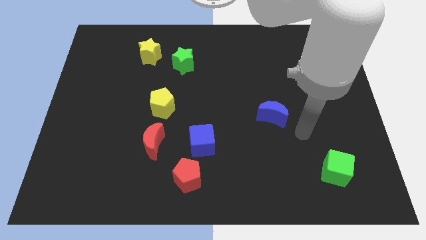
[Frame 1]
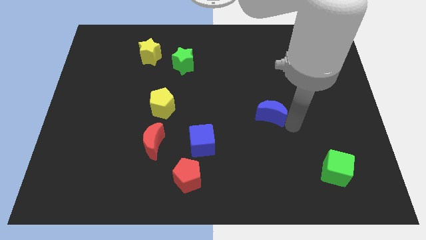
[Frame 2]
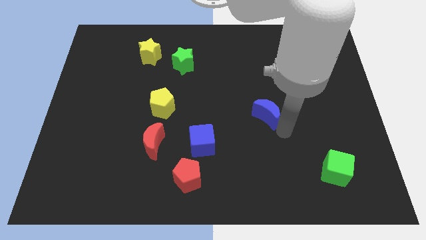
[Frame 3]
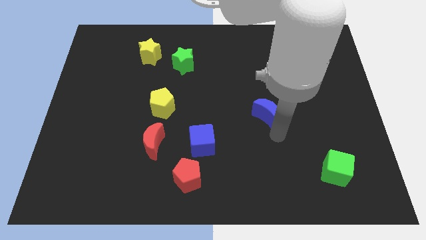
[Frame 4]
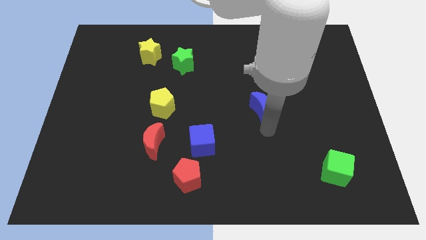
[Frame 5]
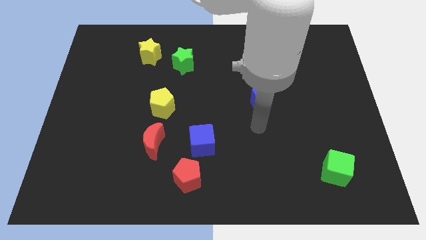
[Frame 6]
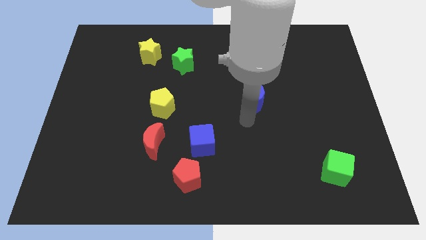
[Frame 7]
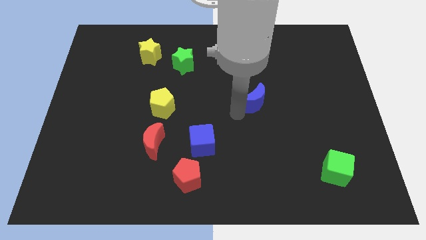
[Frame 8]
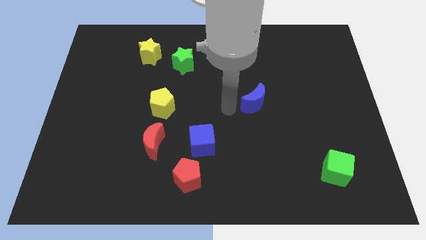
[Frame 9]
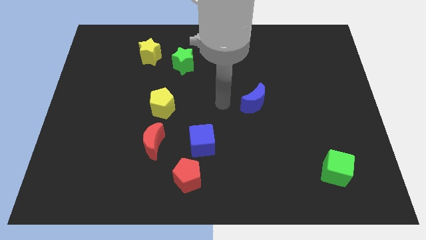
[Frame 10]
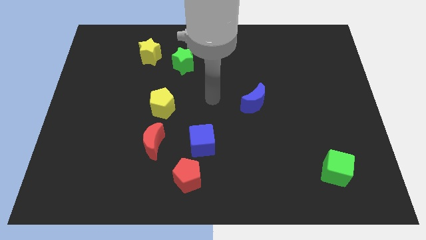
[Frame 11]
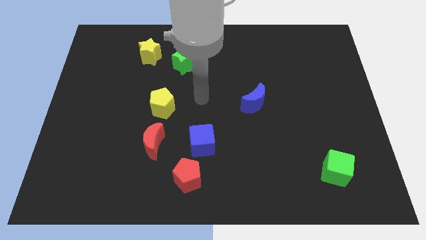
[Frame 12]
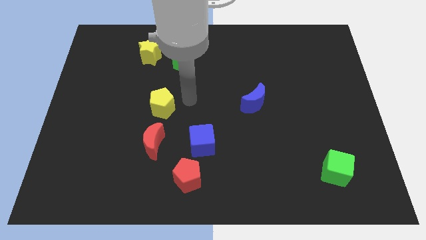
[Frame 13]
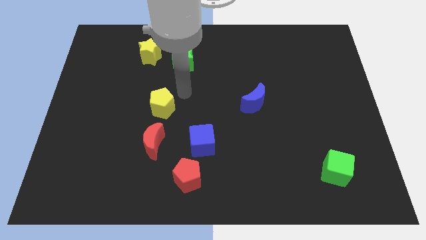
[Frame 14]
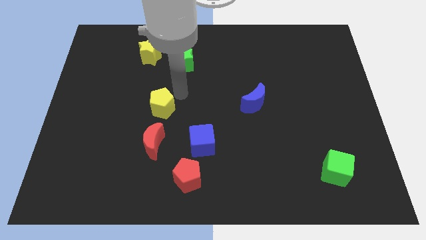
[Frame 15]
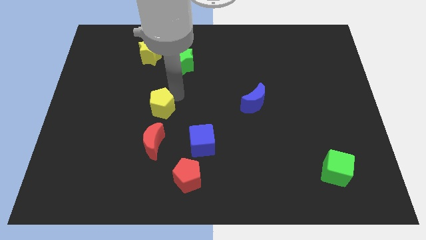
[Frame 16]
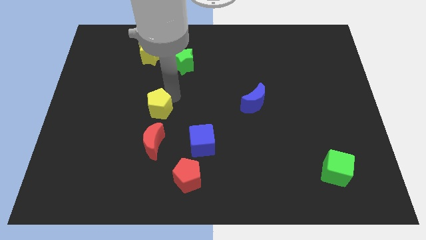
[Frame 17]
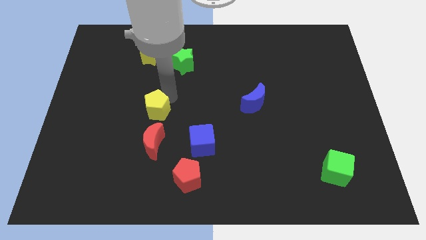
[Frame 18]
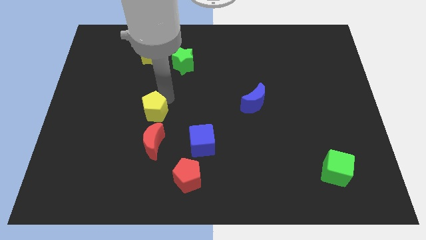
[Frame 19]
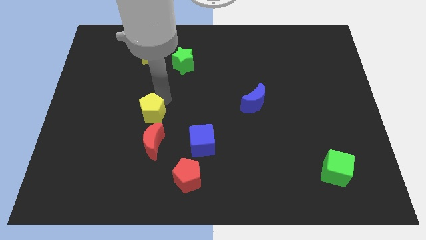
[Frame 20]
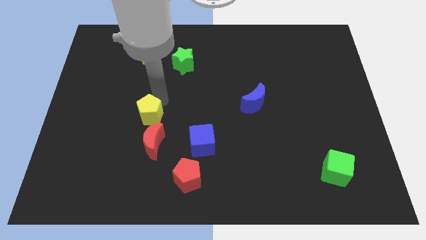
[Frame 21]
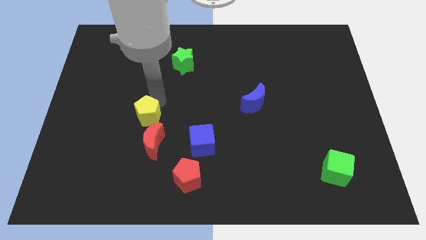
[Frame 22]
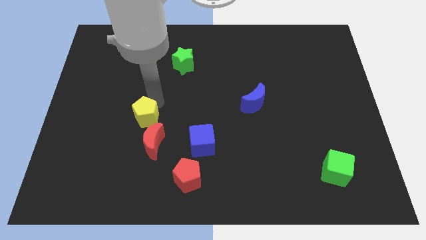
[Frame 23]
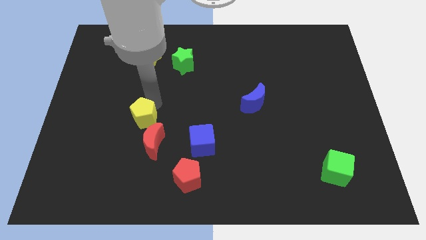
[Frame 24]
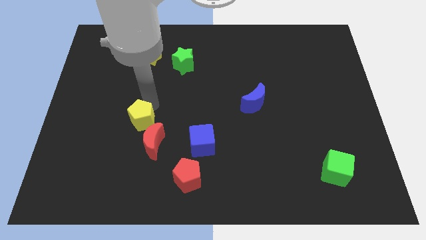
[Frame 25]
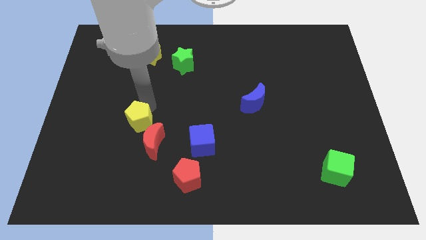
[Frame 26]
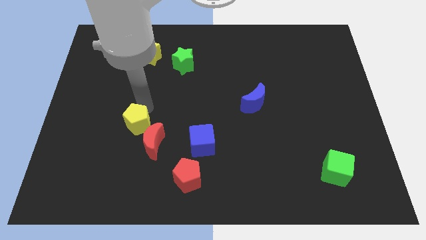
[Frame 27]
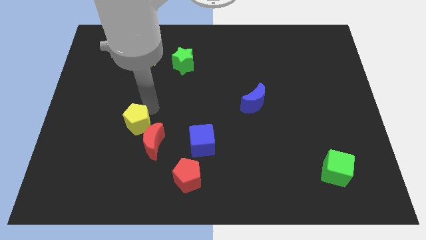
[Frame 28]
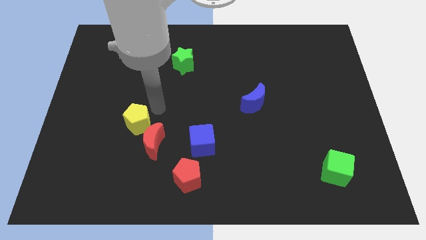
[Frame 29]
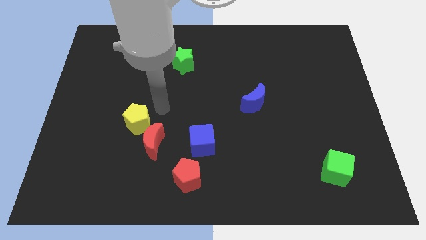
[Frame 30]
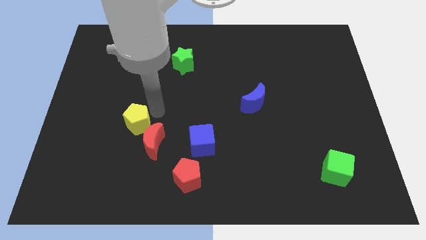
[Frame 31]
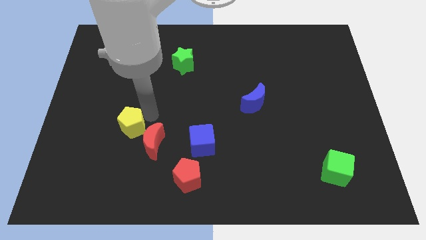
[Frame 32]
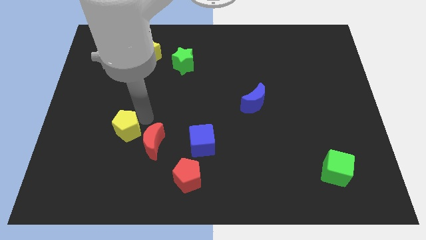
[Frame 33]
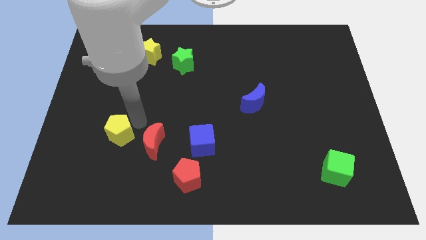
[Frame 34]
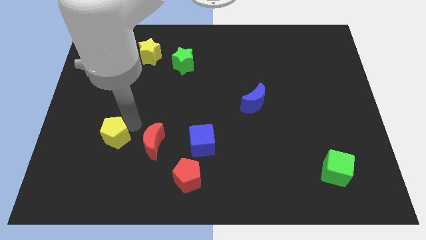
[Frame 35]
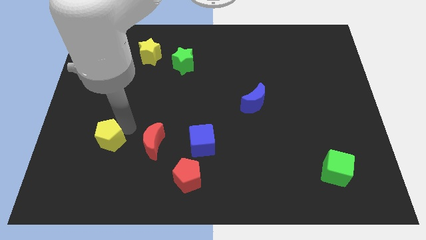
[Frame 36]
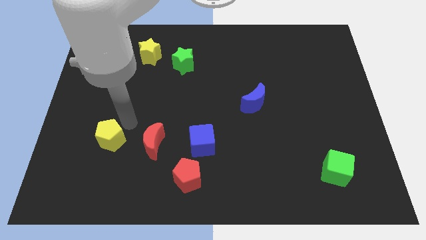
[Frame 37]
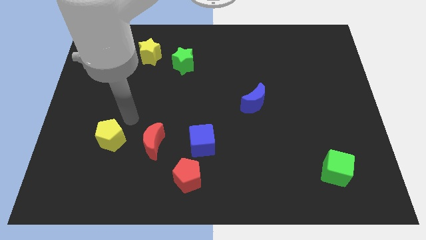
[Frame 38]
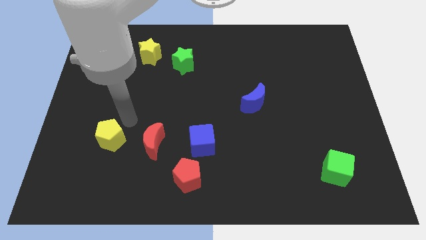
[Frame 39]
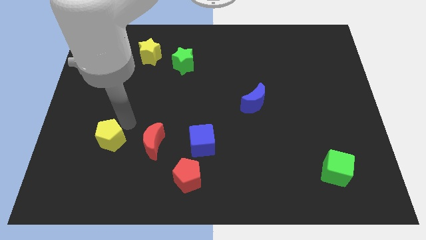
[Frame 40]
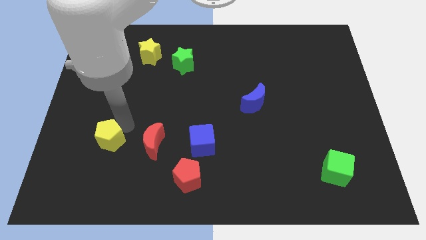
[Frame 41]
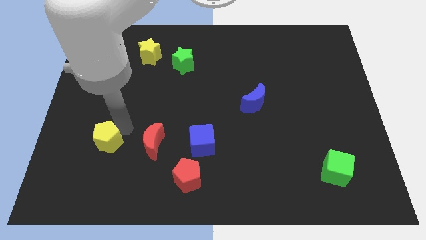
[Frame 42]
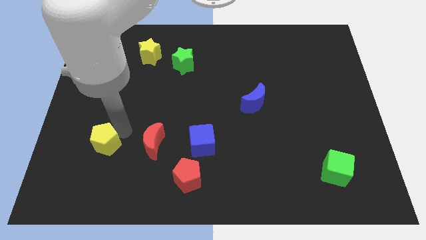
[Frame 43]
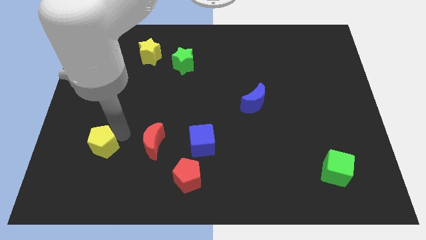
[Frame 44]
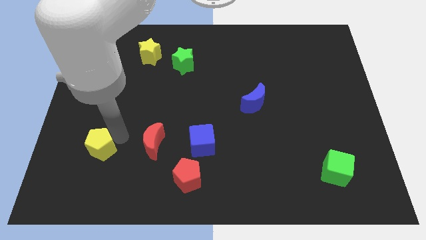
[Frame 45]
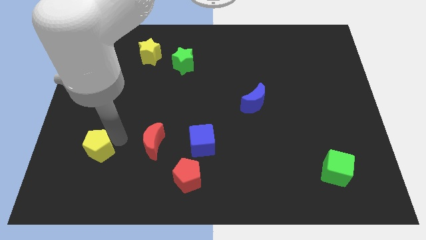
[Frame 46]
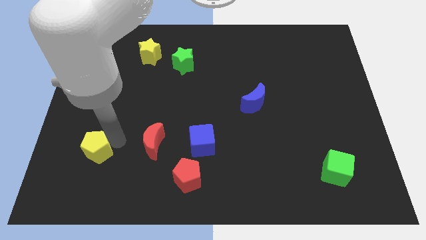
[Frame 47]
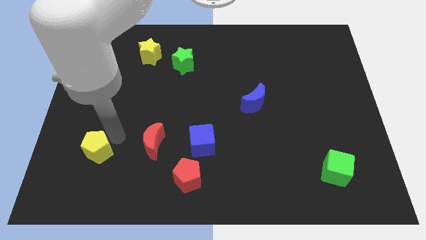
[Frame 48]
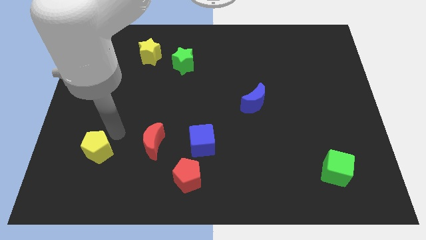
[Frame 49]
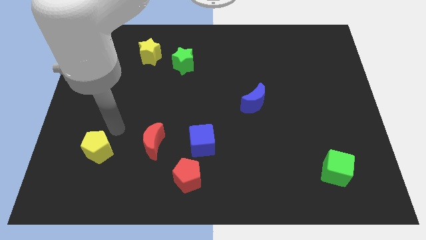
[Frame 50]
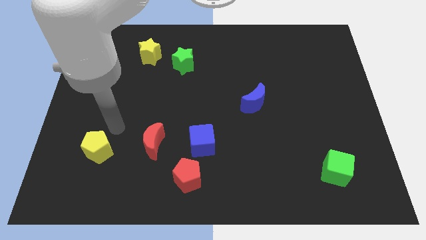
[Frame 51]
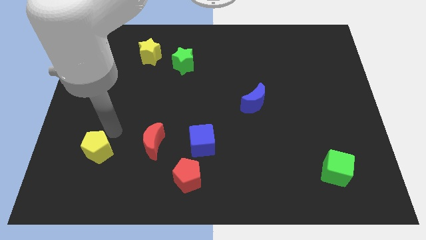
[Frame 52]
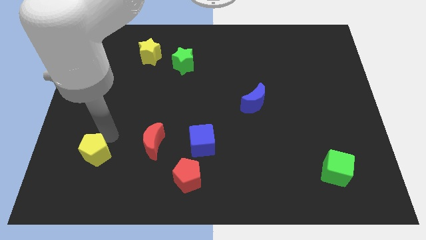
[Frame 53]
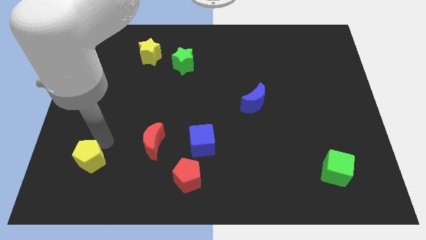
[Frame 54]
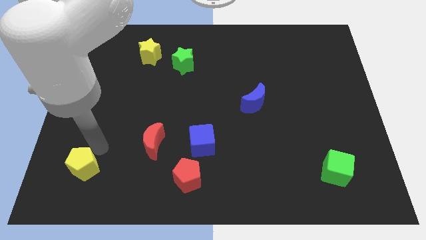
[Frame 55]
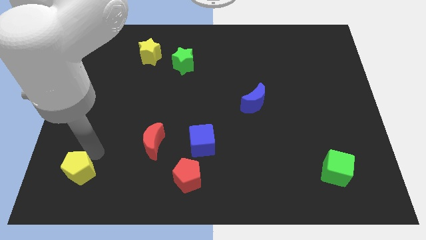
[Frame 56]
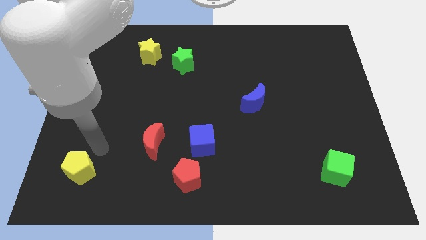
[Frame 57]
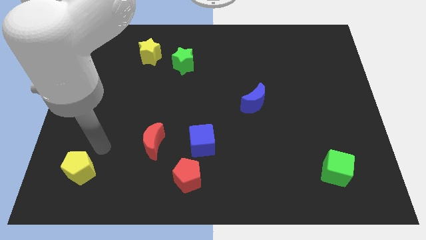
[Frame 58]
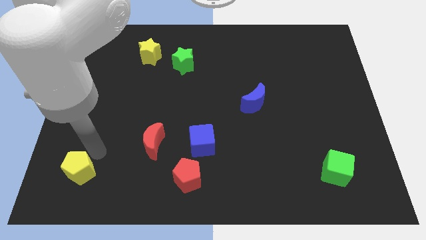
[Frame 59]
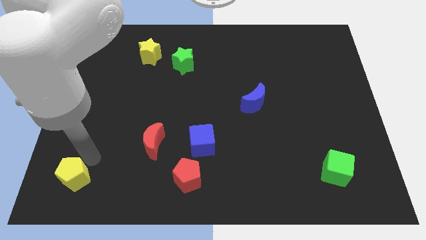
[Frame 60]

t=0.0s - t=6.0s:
slide the yellow pentagon to the bottom left

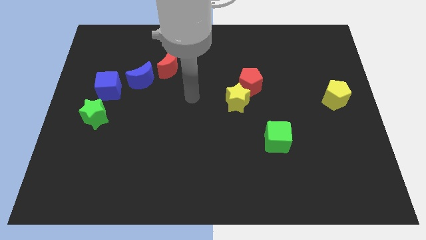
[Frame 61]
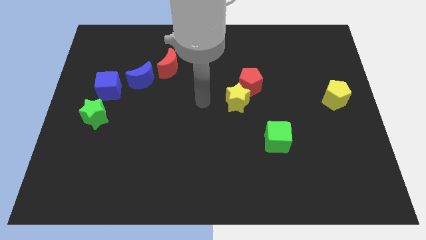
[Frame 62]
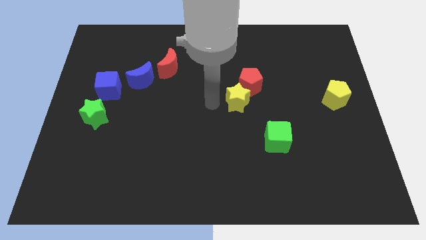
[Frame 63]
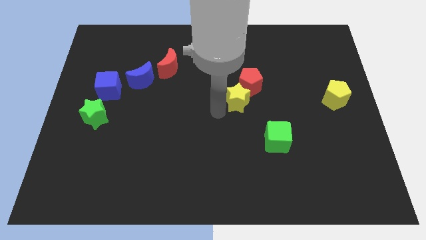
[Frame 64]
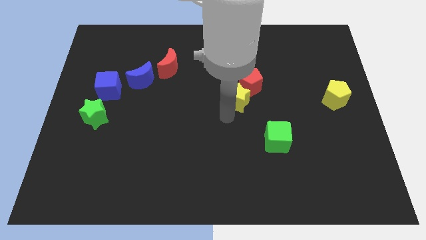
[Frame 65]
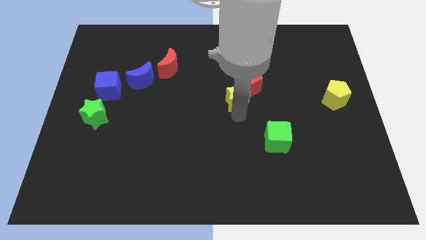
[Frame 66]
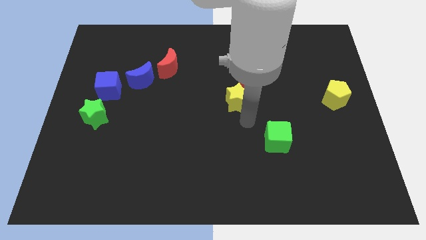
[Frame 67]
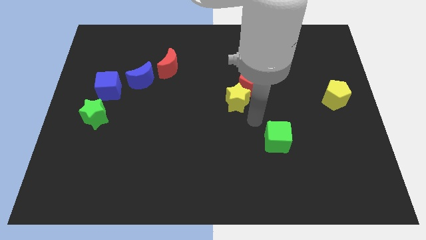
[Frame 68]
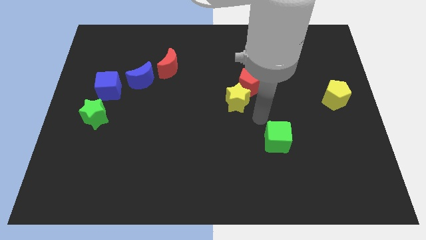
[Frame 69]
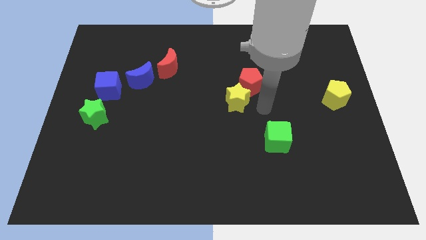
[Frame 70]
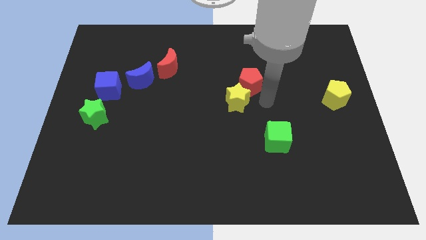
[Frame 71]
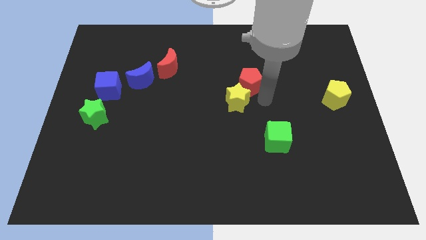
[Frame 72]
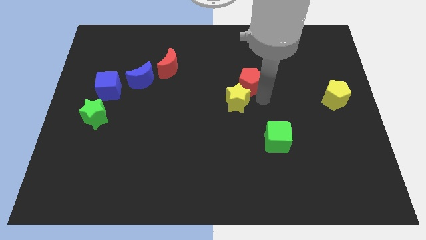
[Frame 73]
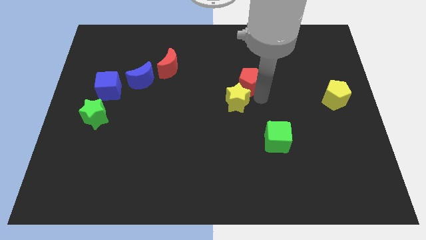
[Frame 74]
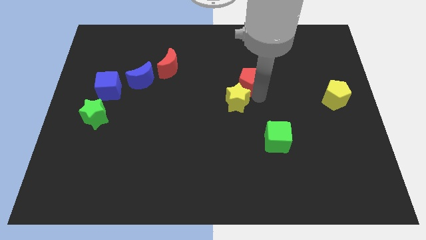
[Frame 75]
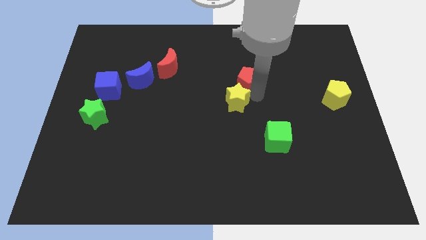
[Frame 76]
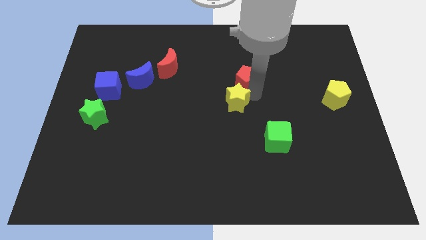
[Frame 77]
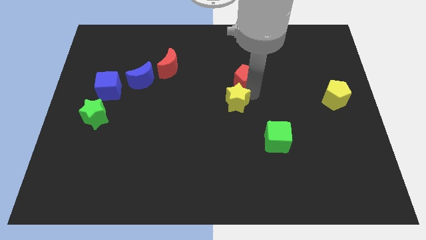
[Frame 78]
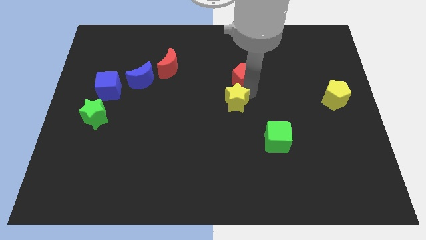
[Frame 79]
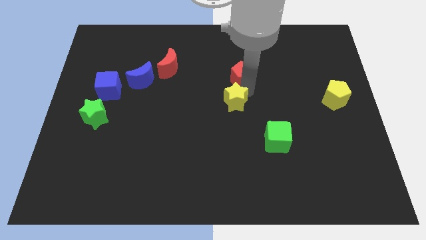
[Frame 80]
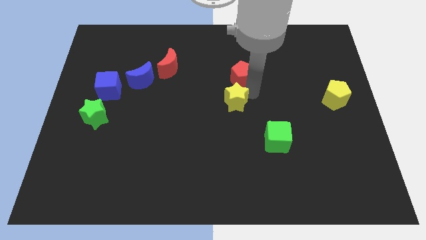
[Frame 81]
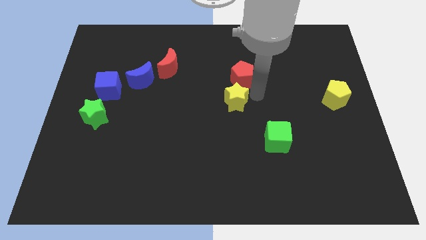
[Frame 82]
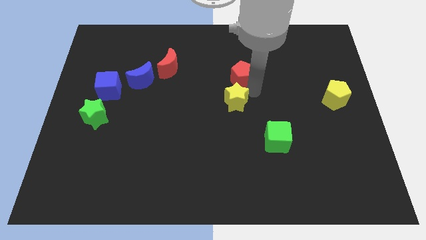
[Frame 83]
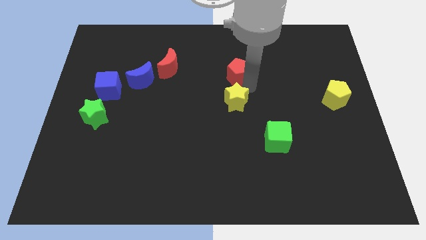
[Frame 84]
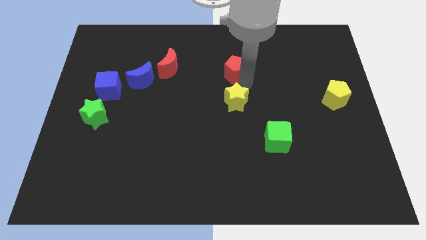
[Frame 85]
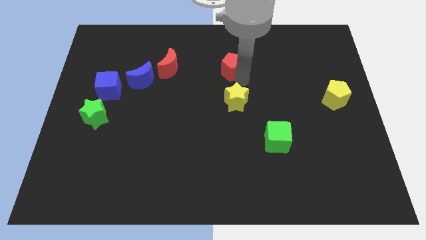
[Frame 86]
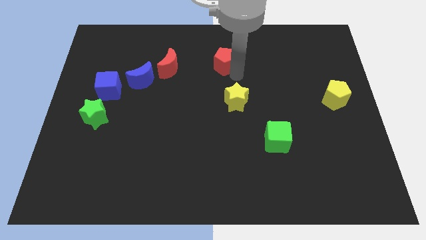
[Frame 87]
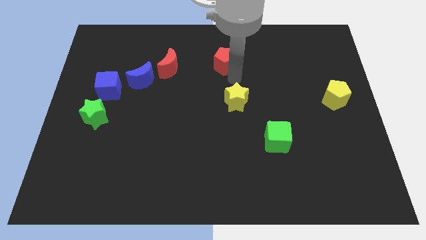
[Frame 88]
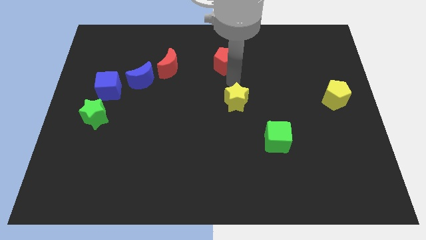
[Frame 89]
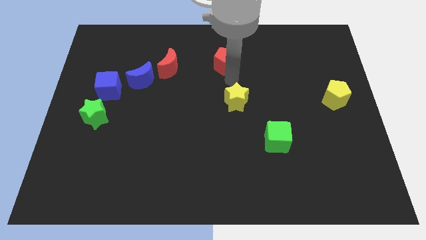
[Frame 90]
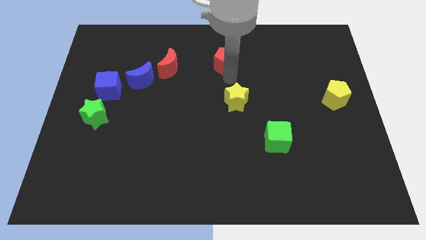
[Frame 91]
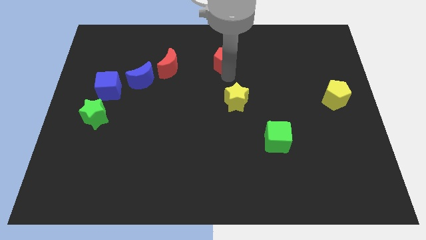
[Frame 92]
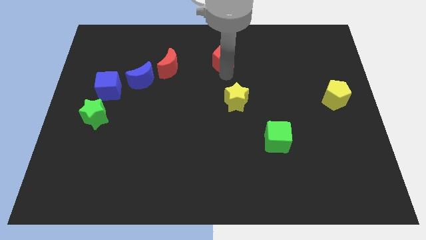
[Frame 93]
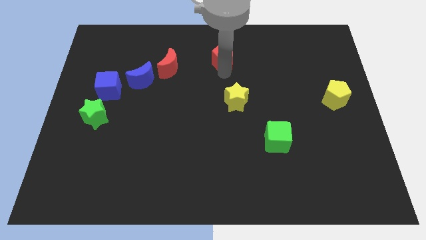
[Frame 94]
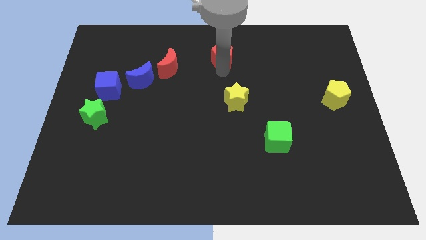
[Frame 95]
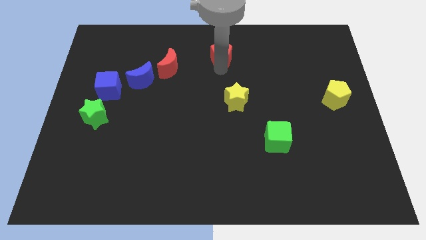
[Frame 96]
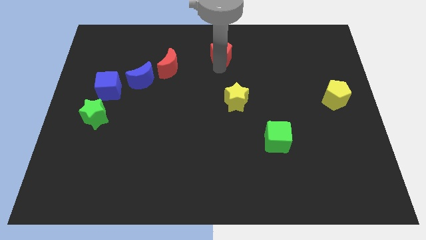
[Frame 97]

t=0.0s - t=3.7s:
push the red pentagon to the towards your base
